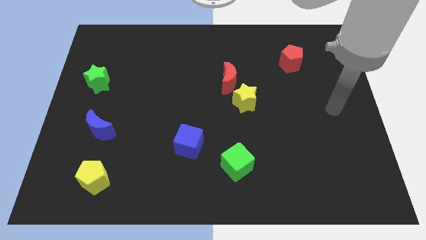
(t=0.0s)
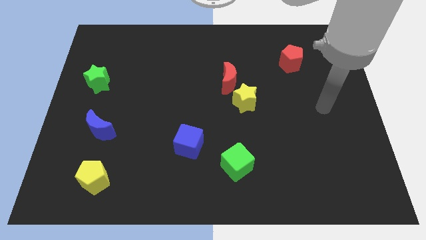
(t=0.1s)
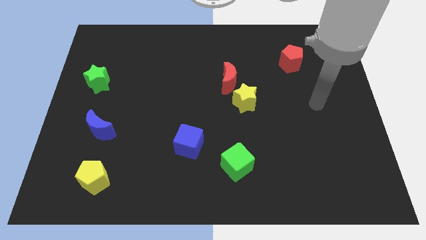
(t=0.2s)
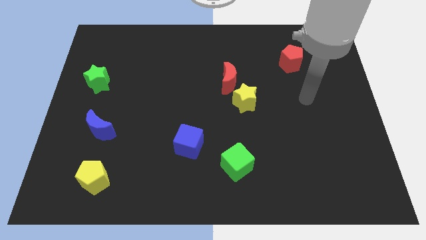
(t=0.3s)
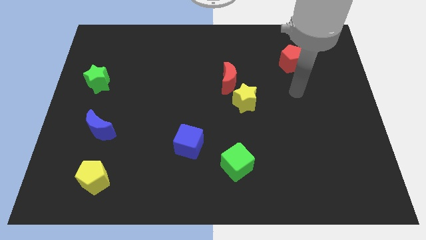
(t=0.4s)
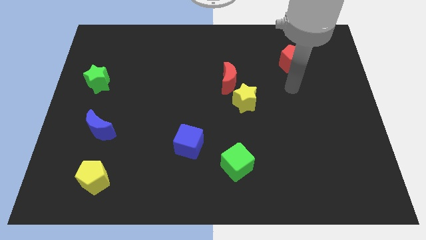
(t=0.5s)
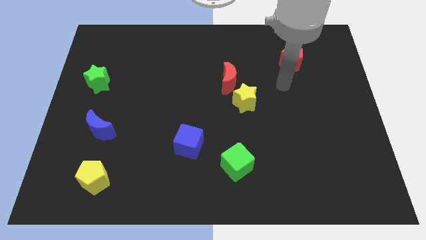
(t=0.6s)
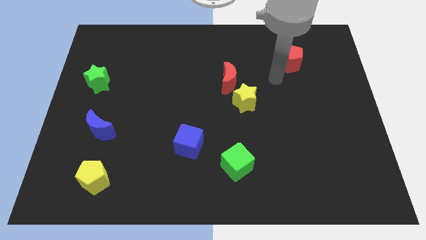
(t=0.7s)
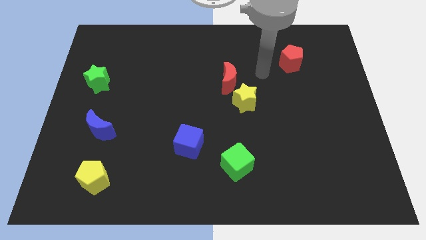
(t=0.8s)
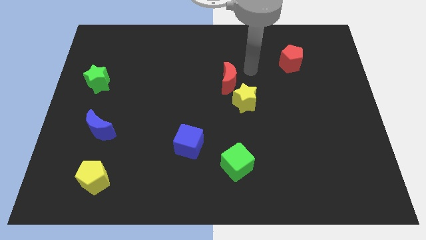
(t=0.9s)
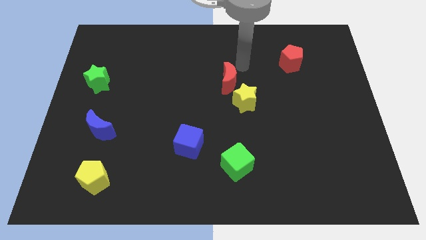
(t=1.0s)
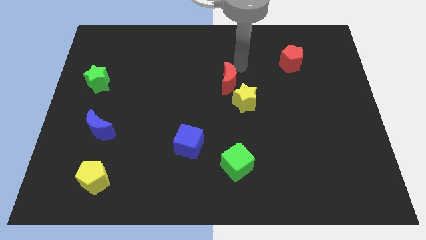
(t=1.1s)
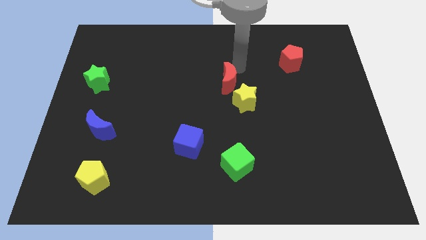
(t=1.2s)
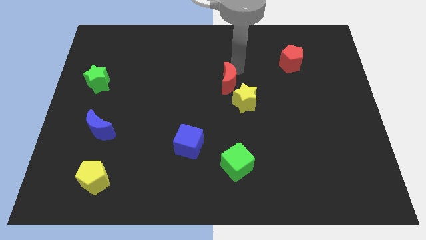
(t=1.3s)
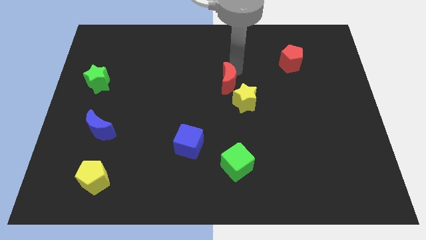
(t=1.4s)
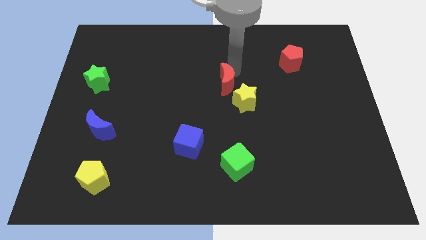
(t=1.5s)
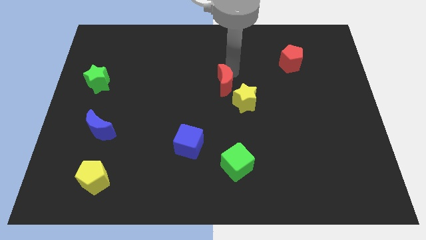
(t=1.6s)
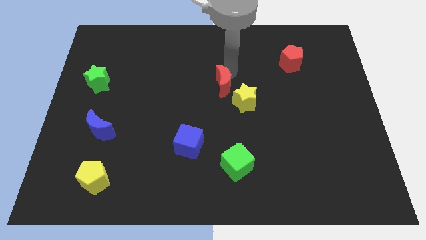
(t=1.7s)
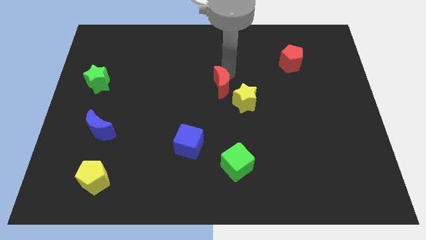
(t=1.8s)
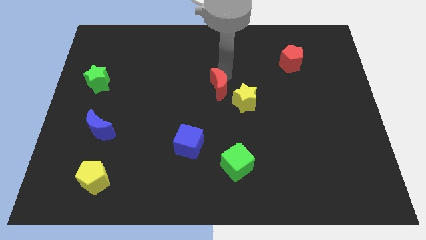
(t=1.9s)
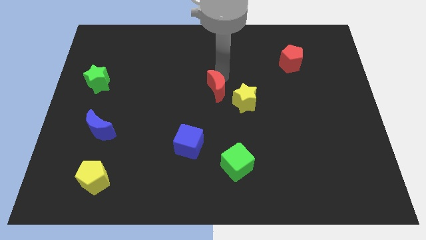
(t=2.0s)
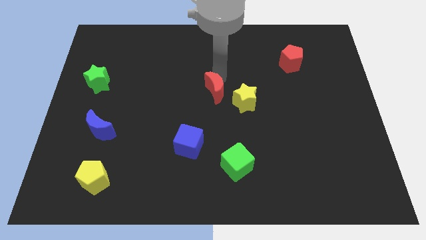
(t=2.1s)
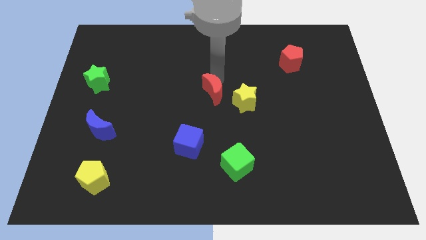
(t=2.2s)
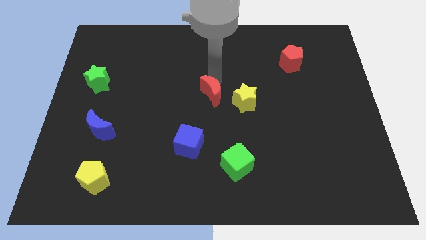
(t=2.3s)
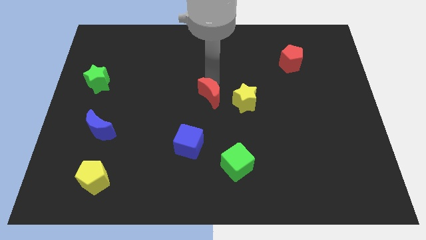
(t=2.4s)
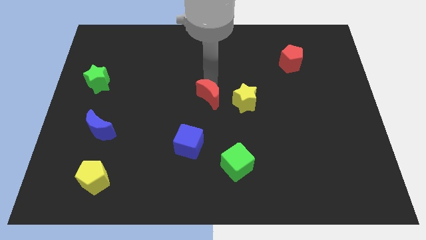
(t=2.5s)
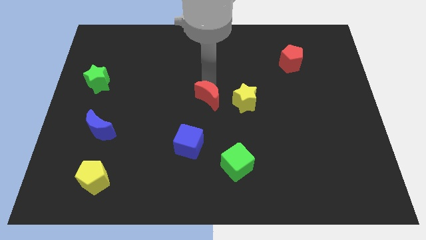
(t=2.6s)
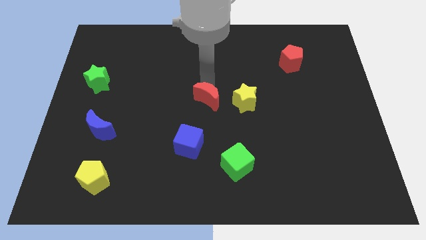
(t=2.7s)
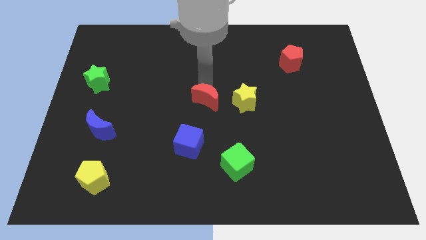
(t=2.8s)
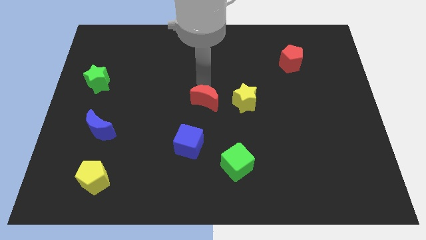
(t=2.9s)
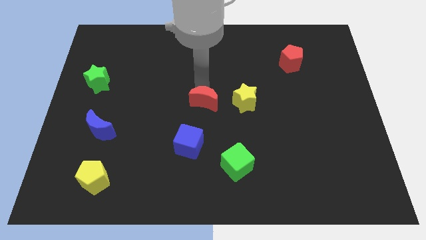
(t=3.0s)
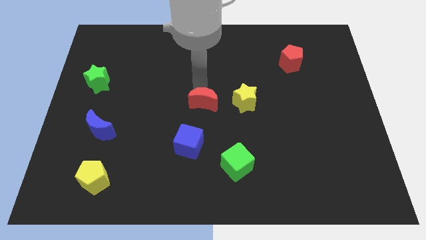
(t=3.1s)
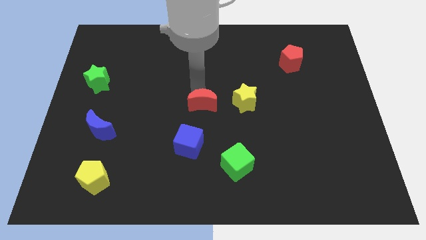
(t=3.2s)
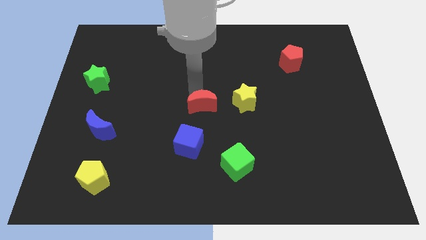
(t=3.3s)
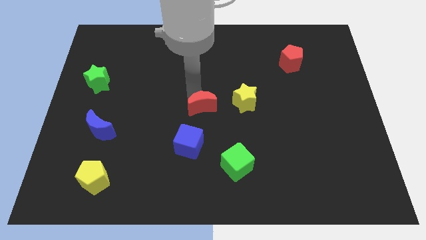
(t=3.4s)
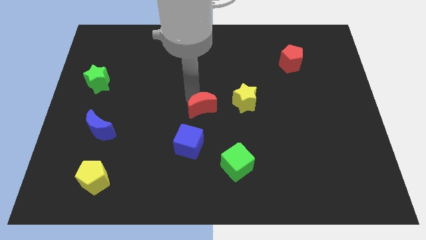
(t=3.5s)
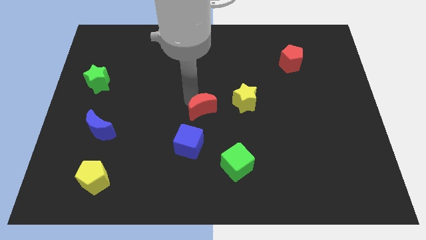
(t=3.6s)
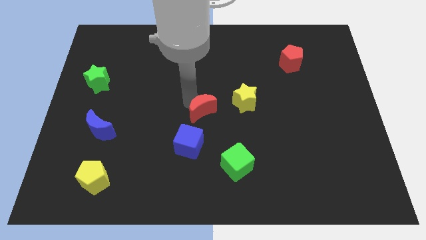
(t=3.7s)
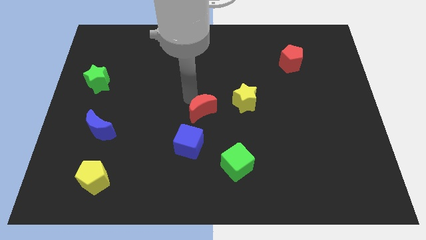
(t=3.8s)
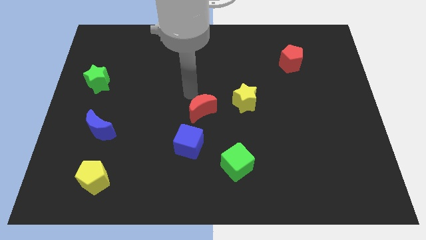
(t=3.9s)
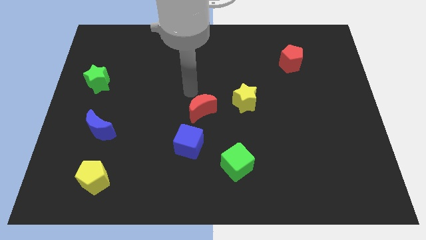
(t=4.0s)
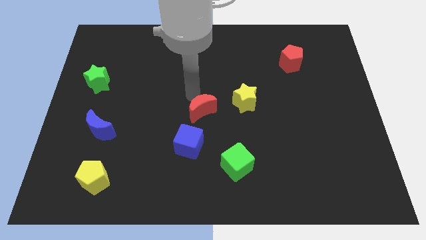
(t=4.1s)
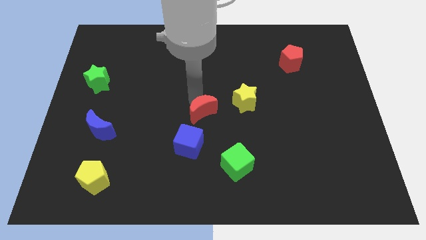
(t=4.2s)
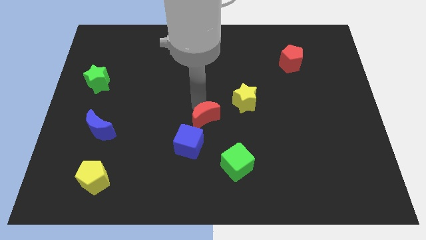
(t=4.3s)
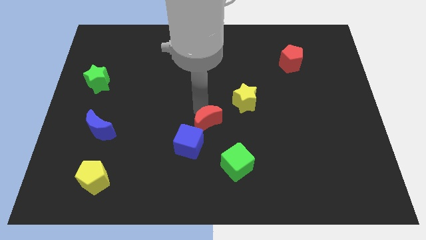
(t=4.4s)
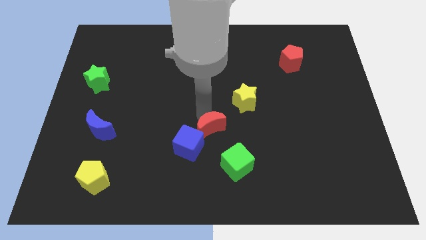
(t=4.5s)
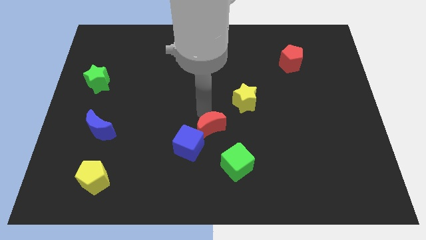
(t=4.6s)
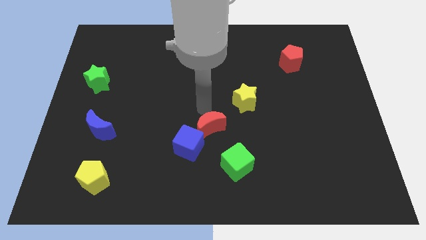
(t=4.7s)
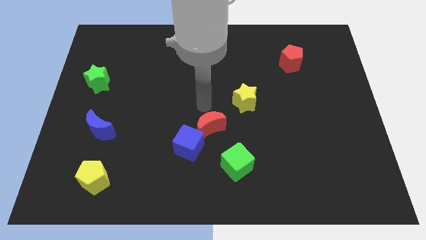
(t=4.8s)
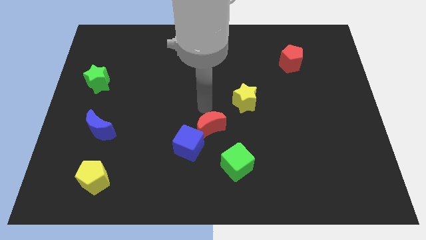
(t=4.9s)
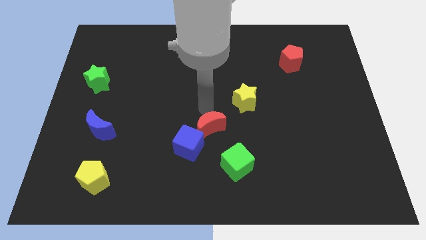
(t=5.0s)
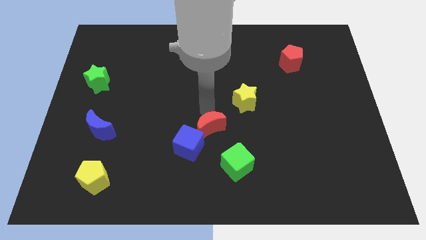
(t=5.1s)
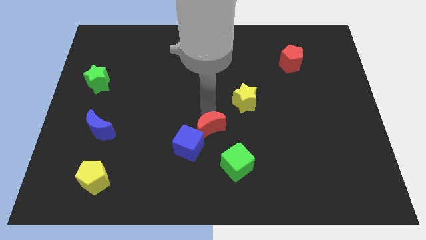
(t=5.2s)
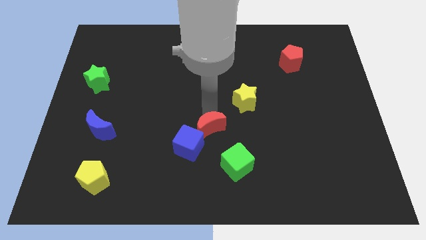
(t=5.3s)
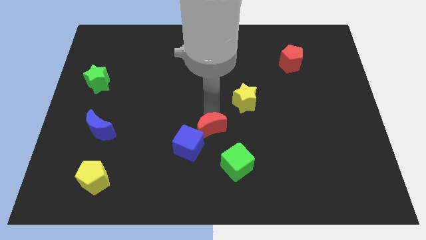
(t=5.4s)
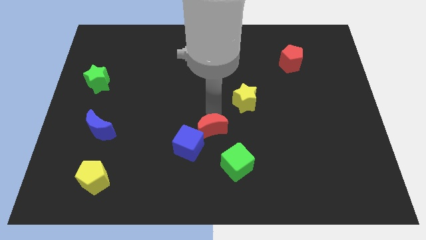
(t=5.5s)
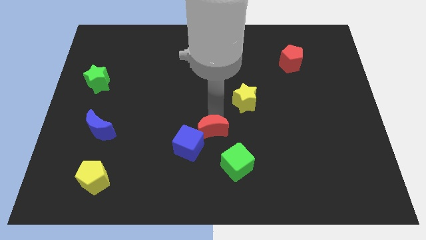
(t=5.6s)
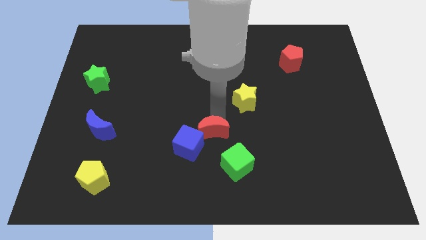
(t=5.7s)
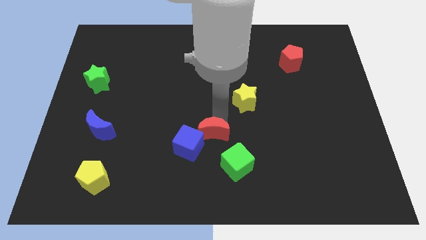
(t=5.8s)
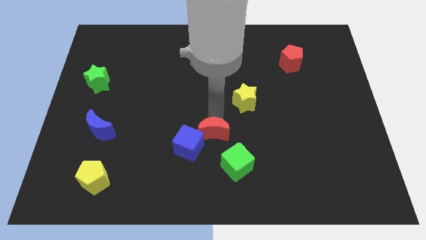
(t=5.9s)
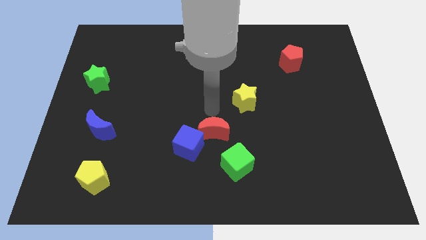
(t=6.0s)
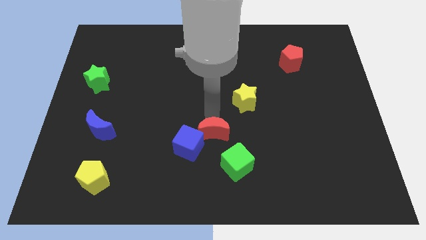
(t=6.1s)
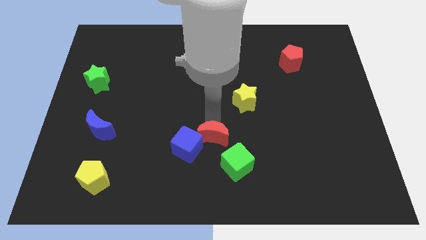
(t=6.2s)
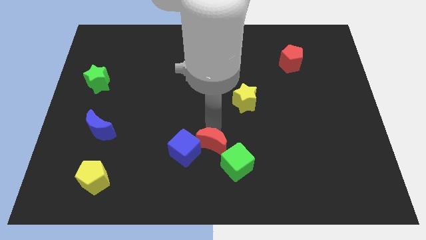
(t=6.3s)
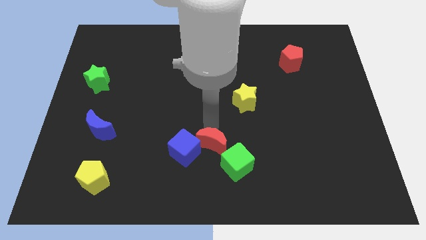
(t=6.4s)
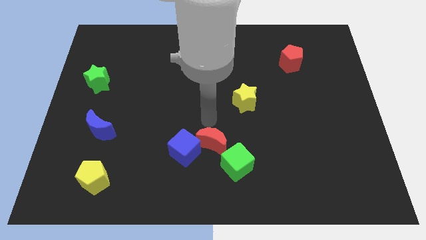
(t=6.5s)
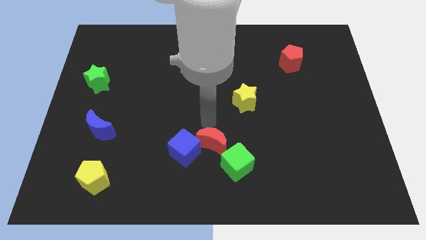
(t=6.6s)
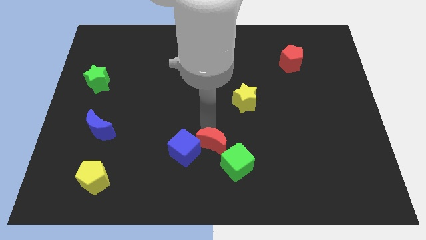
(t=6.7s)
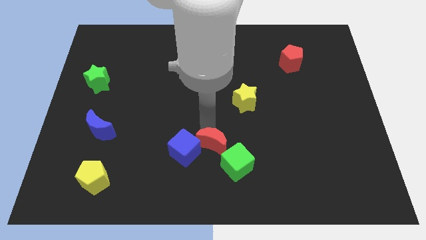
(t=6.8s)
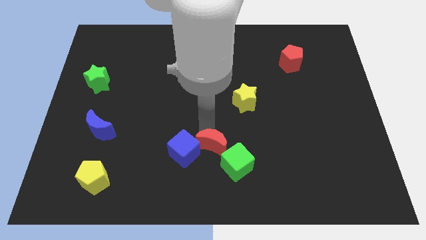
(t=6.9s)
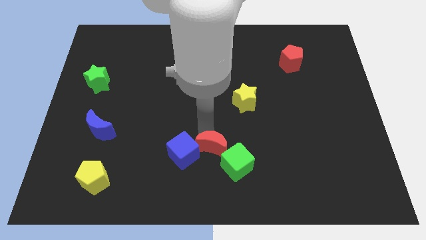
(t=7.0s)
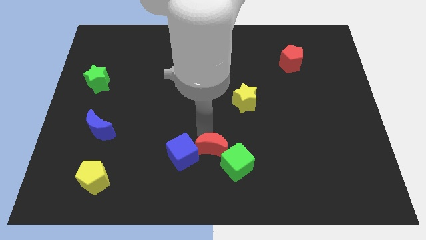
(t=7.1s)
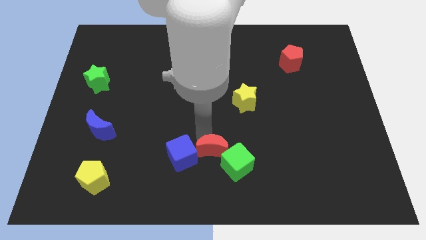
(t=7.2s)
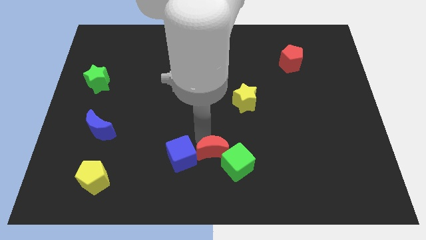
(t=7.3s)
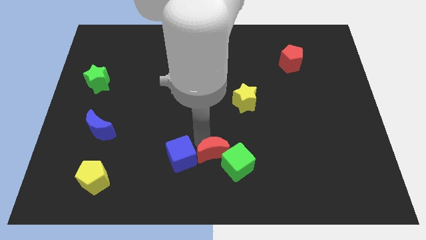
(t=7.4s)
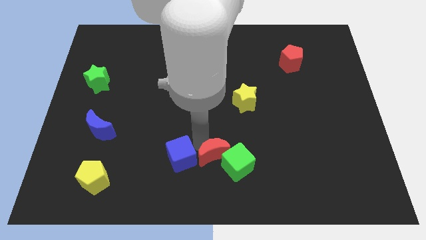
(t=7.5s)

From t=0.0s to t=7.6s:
slide the red moon to the bottom side
